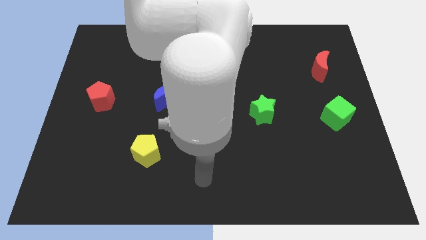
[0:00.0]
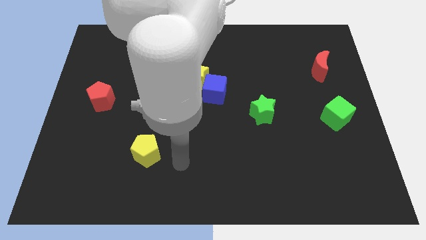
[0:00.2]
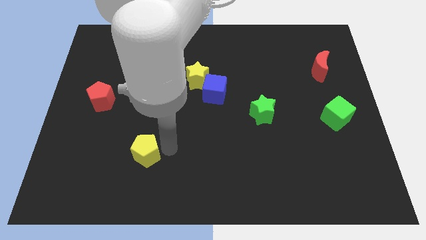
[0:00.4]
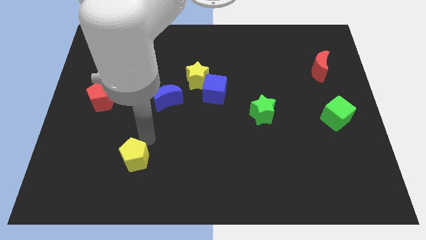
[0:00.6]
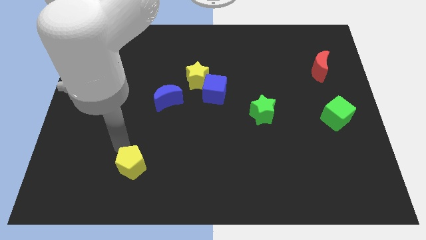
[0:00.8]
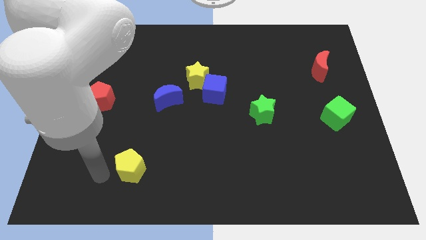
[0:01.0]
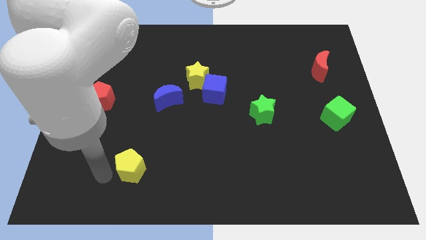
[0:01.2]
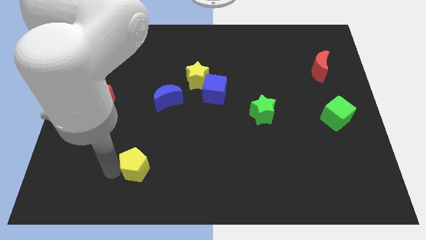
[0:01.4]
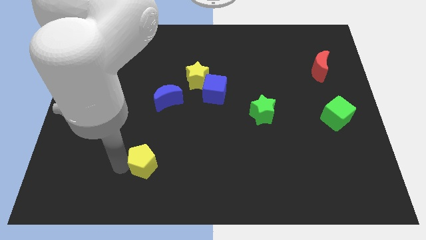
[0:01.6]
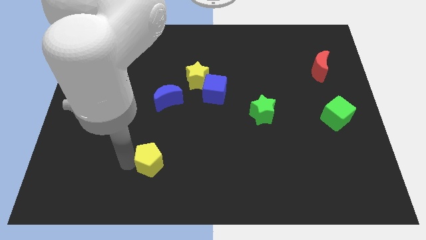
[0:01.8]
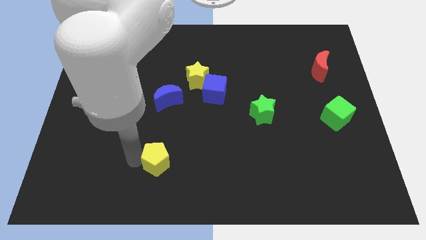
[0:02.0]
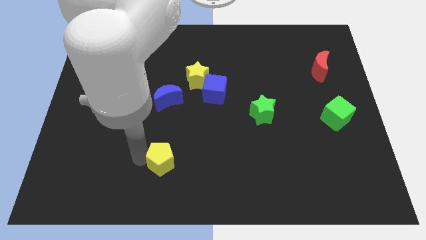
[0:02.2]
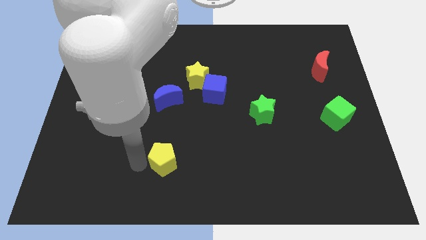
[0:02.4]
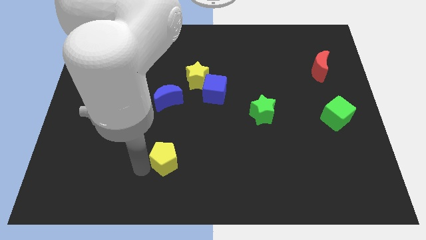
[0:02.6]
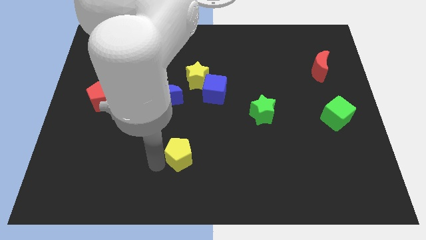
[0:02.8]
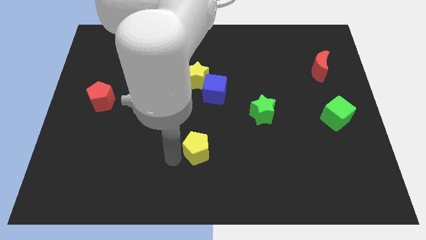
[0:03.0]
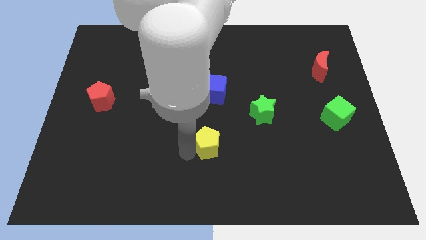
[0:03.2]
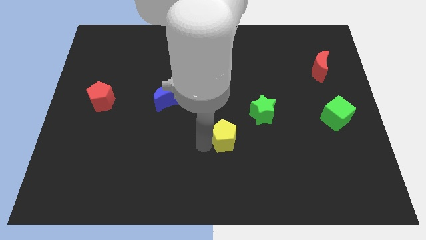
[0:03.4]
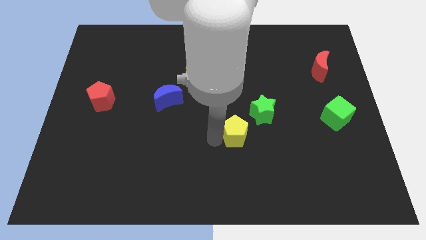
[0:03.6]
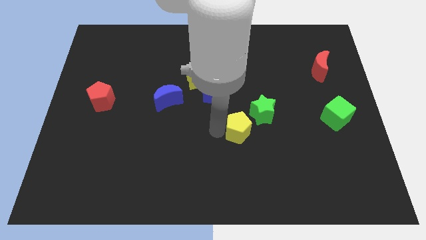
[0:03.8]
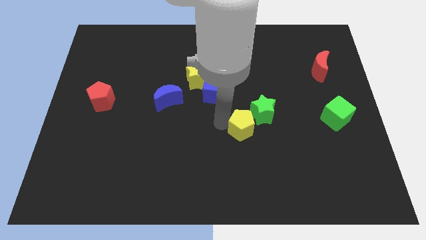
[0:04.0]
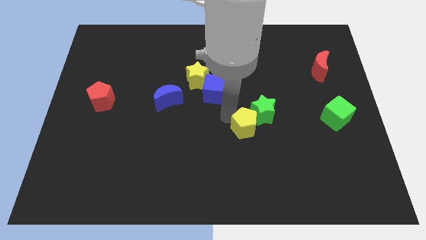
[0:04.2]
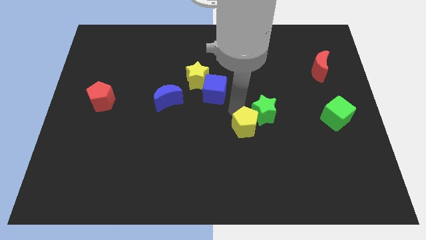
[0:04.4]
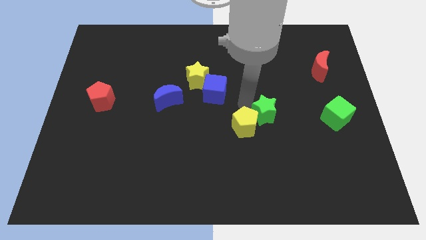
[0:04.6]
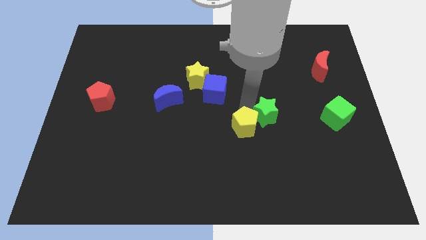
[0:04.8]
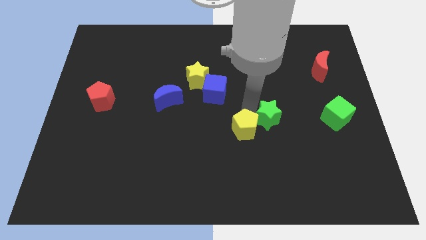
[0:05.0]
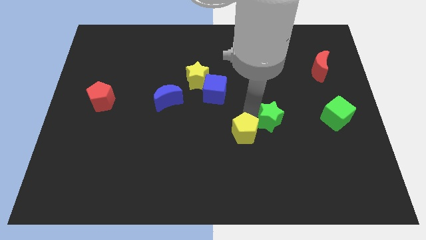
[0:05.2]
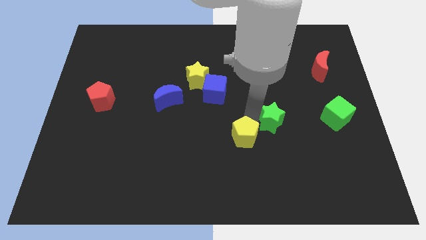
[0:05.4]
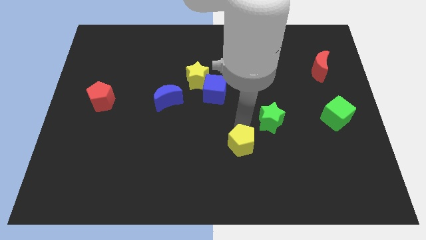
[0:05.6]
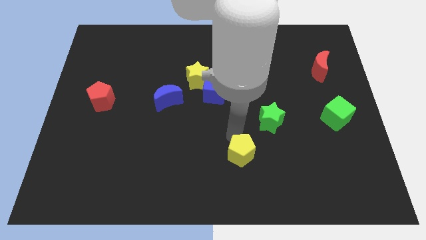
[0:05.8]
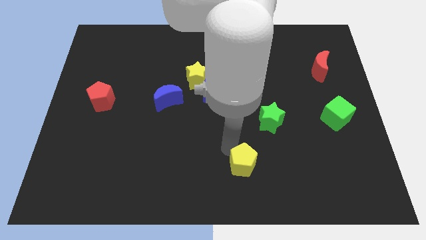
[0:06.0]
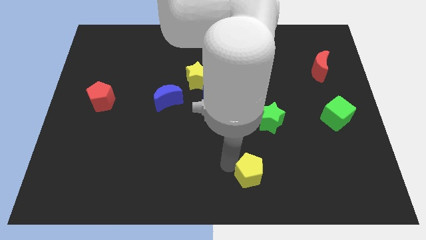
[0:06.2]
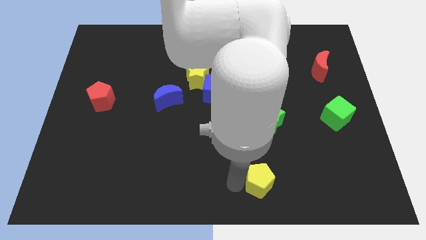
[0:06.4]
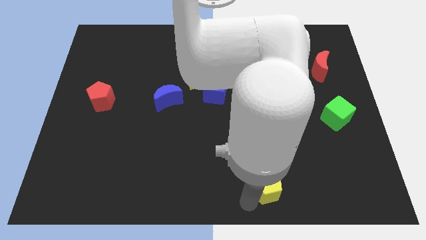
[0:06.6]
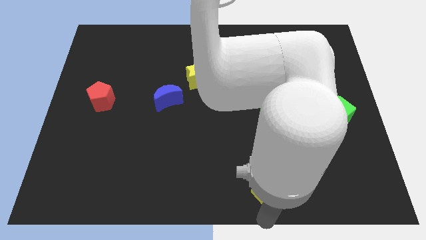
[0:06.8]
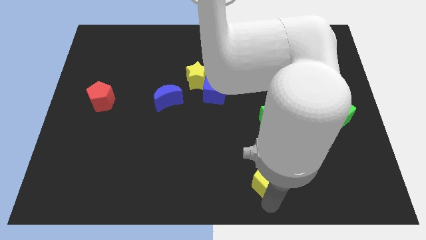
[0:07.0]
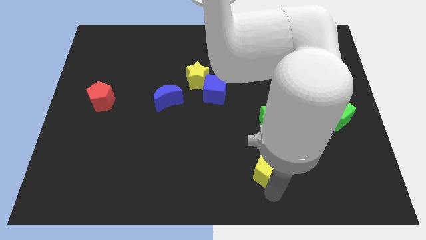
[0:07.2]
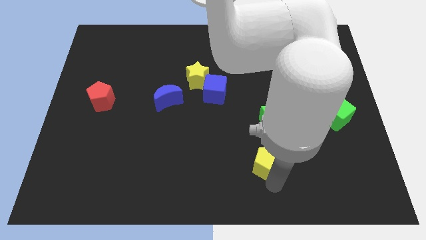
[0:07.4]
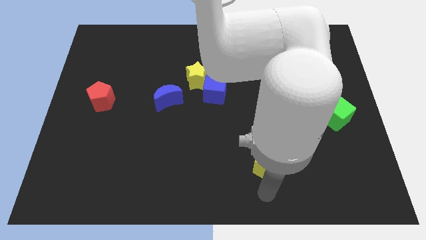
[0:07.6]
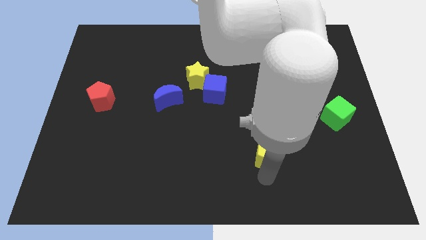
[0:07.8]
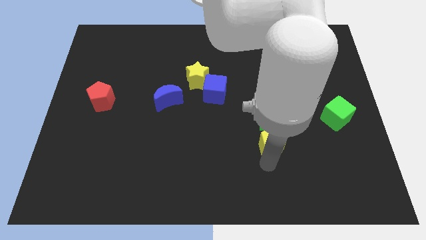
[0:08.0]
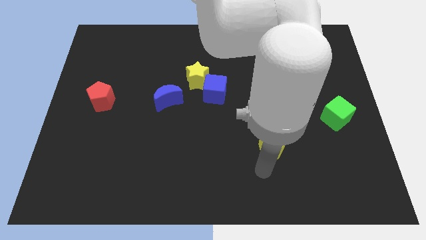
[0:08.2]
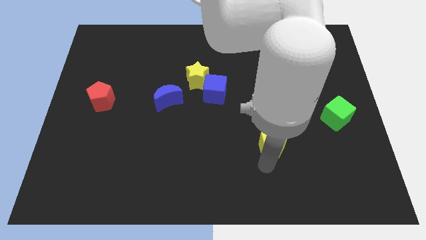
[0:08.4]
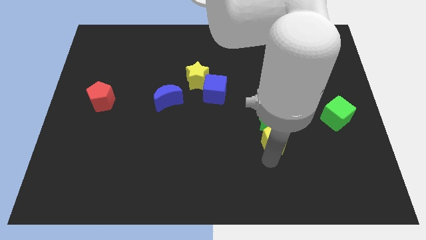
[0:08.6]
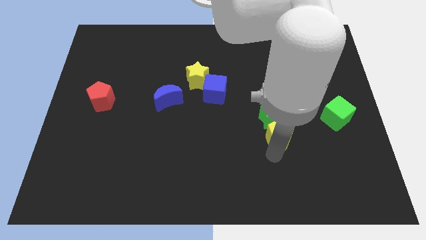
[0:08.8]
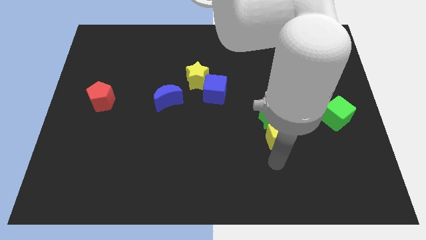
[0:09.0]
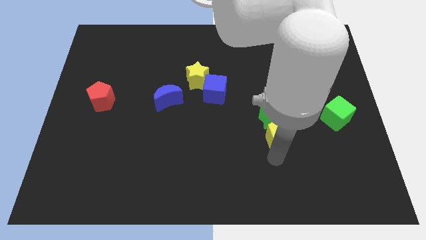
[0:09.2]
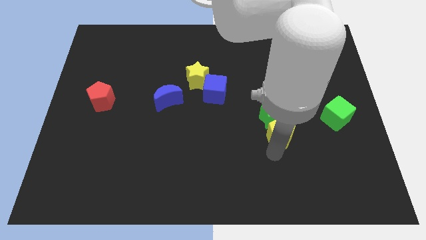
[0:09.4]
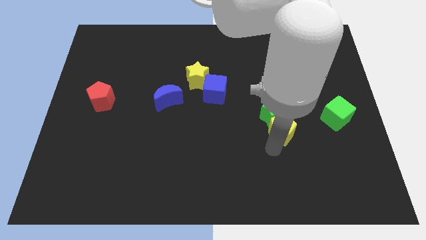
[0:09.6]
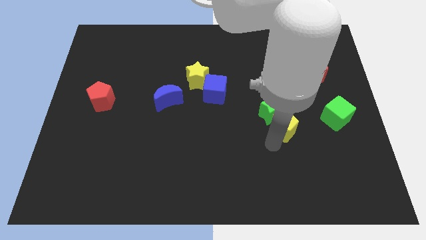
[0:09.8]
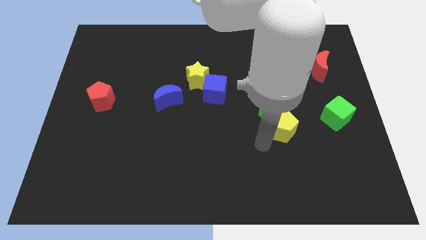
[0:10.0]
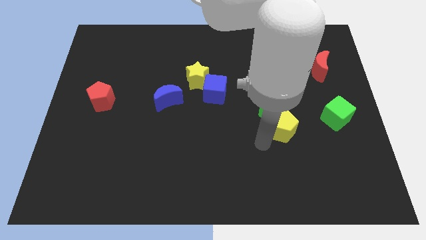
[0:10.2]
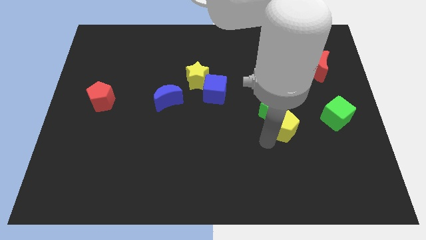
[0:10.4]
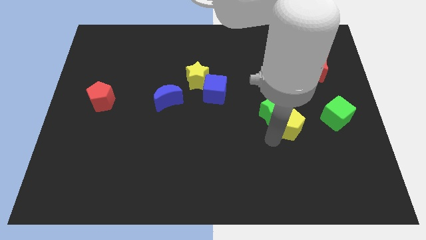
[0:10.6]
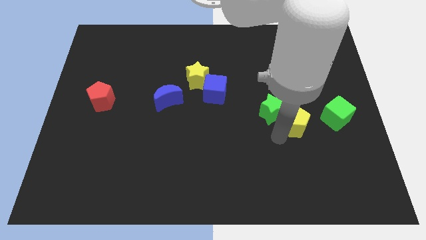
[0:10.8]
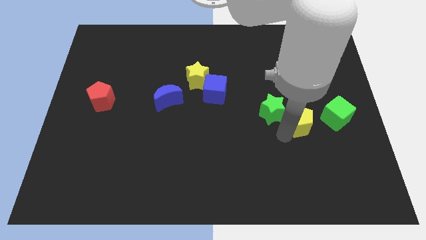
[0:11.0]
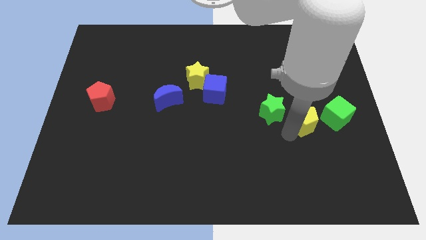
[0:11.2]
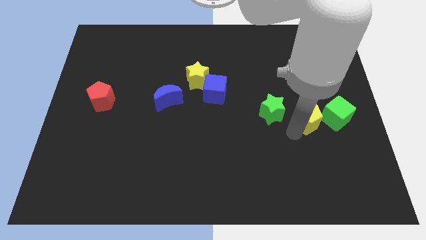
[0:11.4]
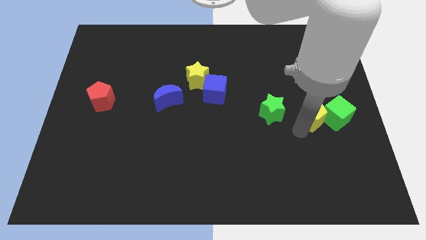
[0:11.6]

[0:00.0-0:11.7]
move the yellow pentagon diagonally up and to the left of the green cube
